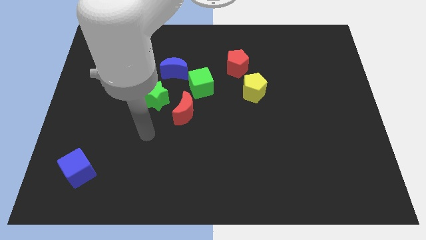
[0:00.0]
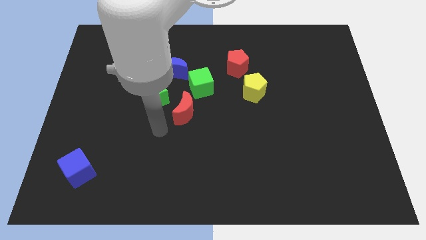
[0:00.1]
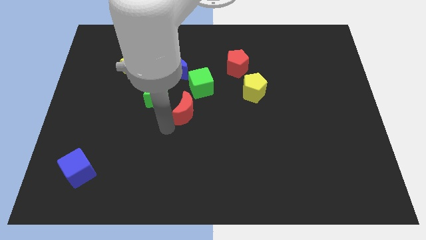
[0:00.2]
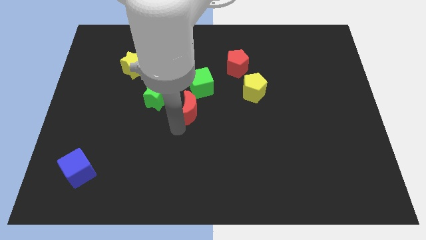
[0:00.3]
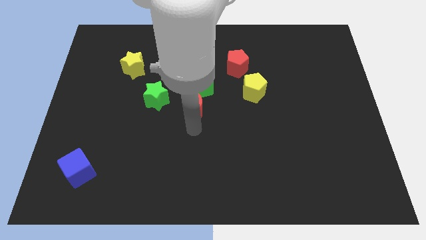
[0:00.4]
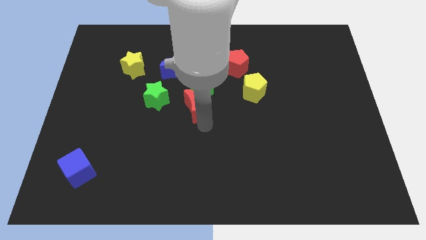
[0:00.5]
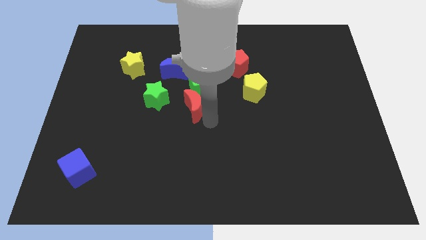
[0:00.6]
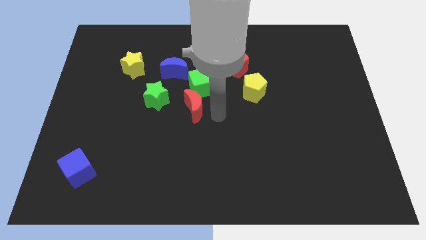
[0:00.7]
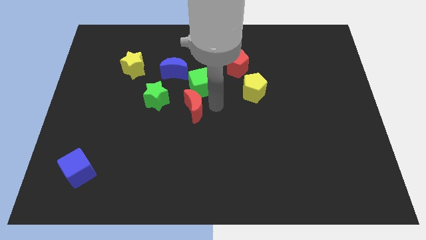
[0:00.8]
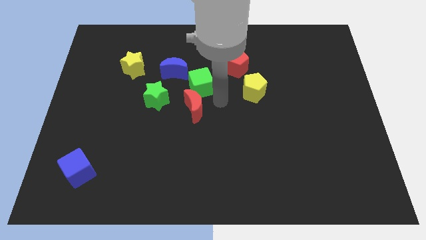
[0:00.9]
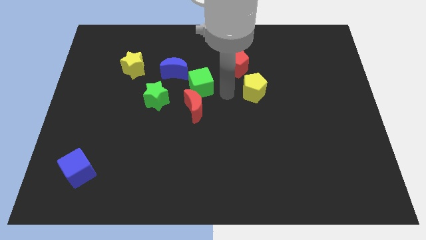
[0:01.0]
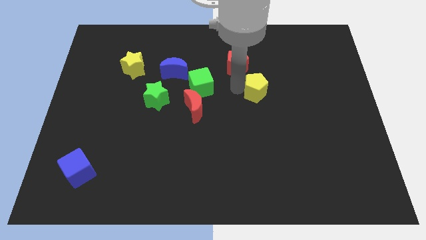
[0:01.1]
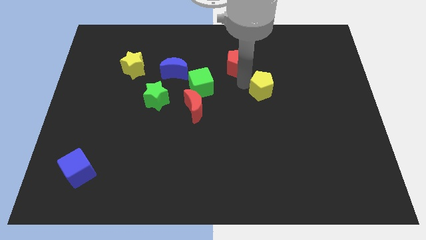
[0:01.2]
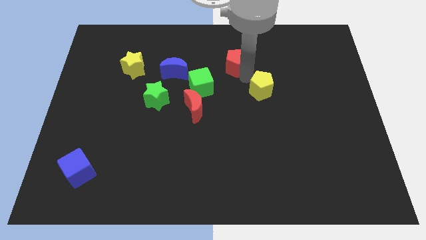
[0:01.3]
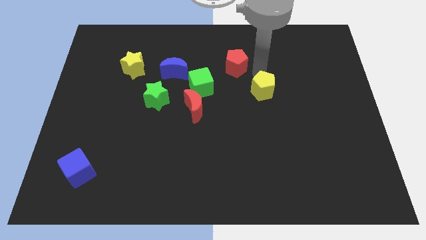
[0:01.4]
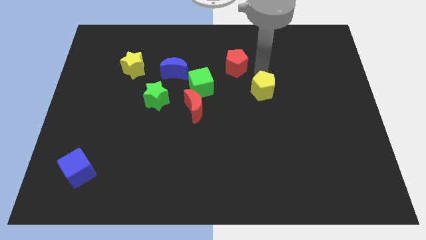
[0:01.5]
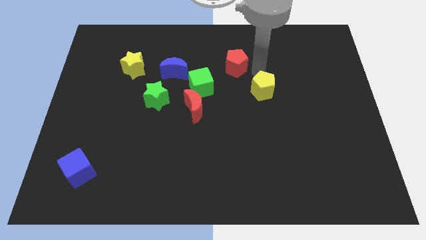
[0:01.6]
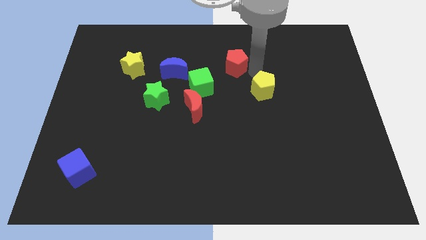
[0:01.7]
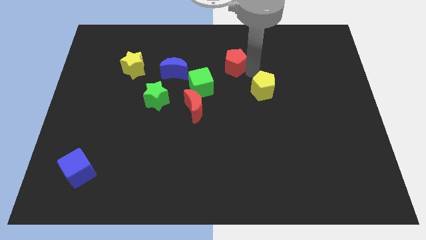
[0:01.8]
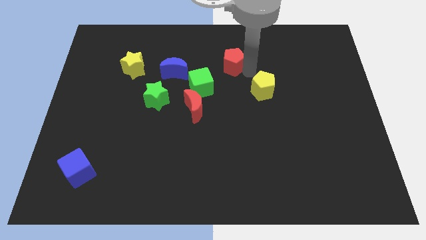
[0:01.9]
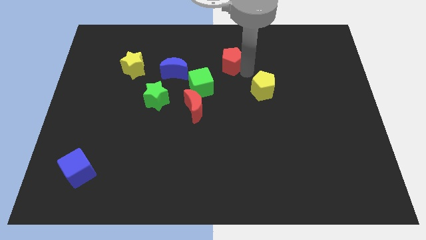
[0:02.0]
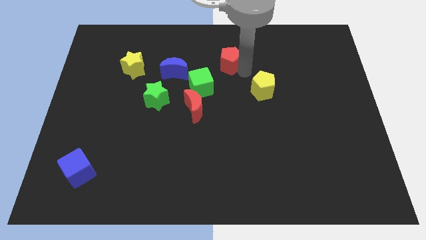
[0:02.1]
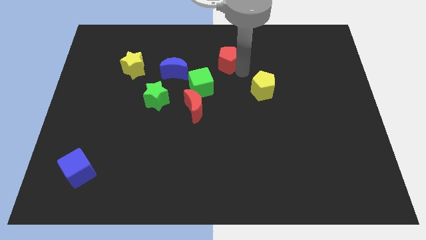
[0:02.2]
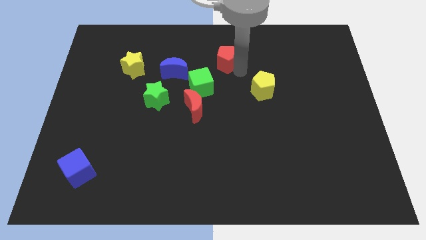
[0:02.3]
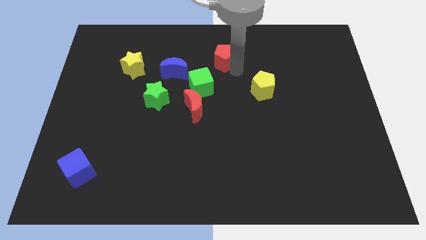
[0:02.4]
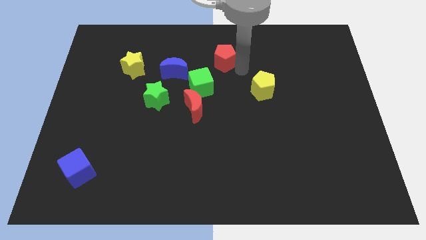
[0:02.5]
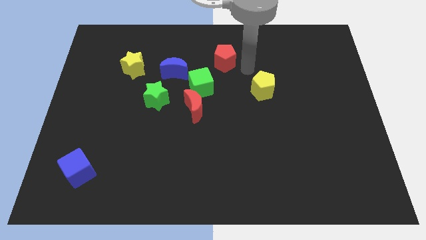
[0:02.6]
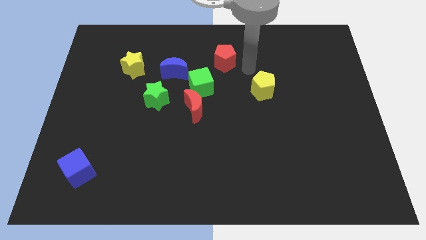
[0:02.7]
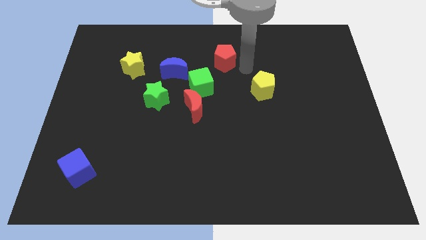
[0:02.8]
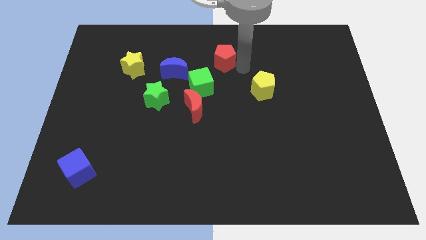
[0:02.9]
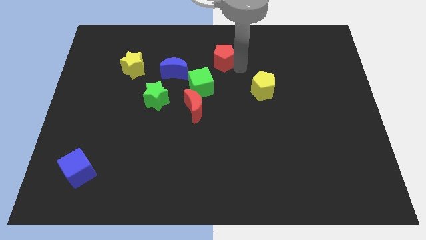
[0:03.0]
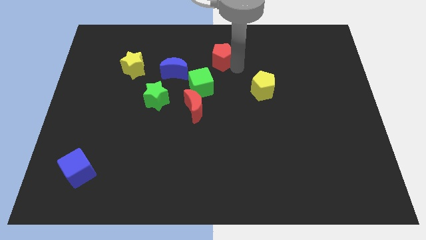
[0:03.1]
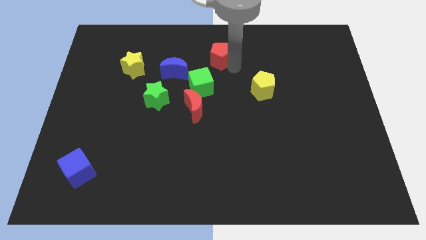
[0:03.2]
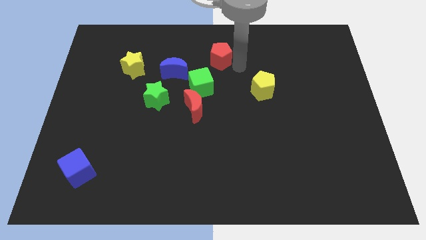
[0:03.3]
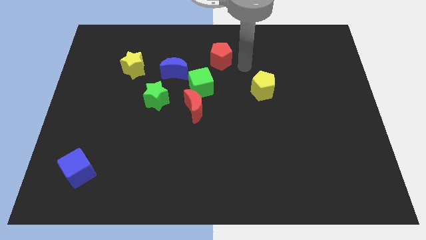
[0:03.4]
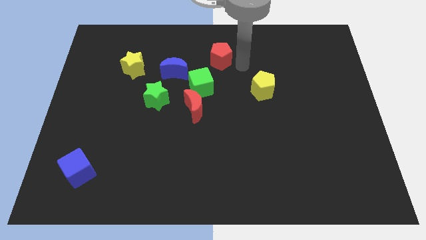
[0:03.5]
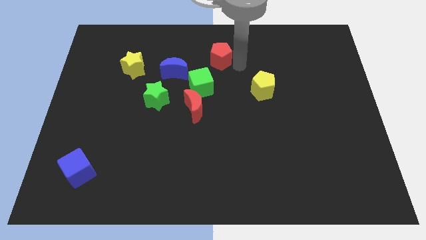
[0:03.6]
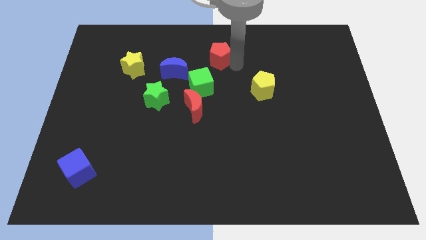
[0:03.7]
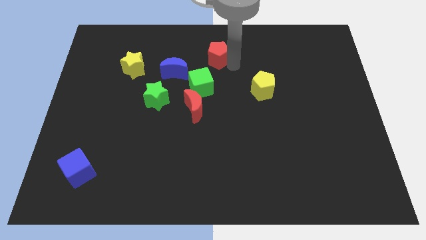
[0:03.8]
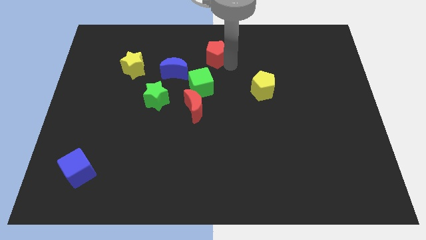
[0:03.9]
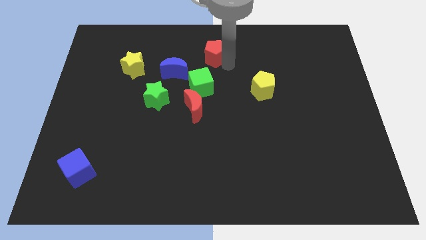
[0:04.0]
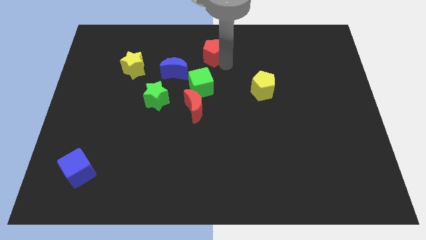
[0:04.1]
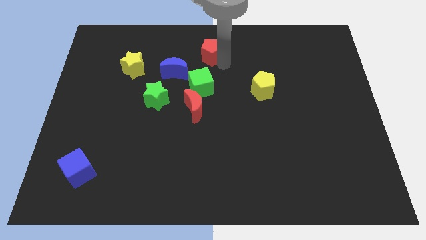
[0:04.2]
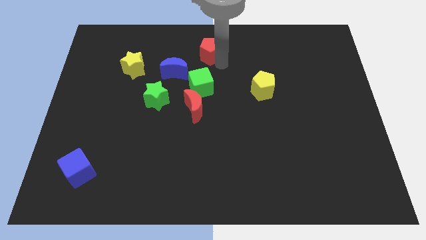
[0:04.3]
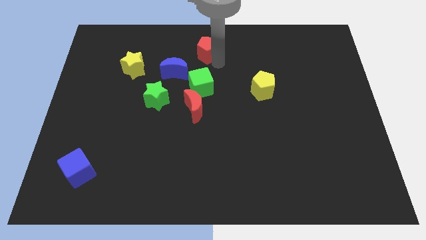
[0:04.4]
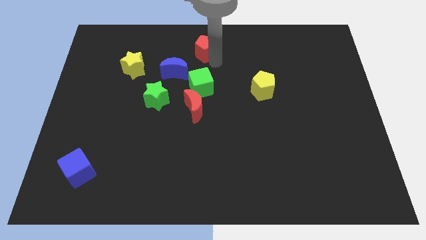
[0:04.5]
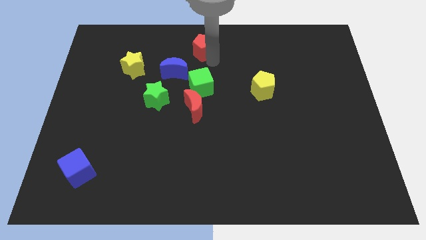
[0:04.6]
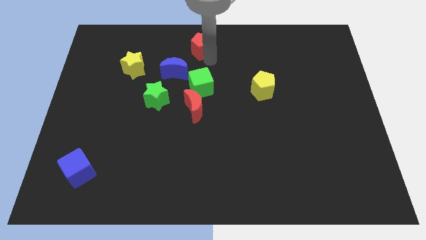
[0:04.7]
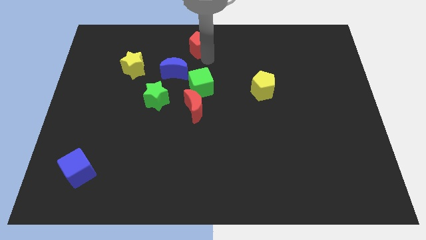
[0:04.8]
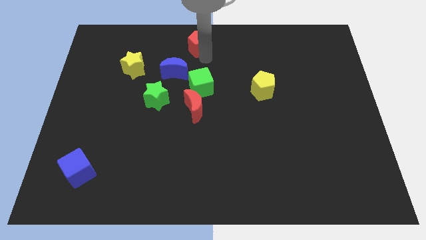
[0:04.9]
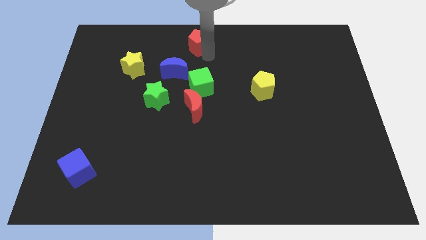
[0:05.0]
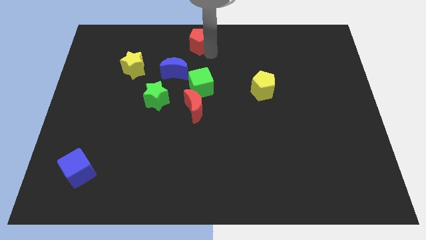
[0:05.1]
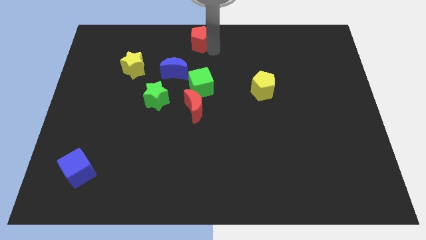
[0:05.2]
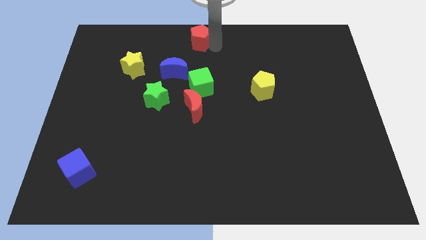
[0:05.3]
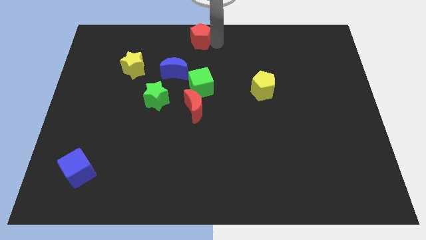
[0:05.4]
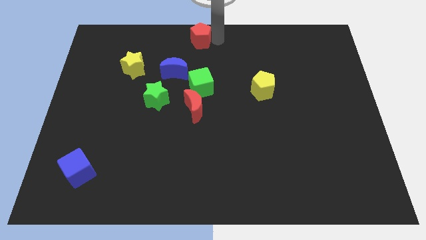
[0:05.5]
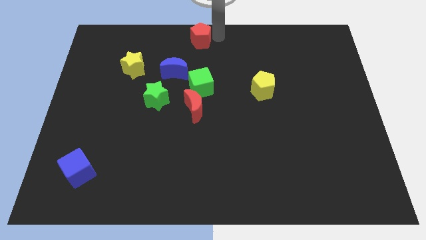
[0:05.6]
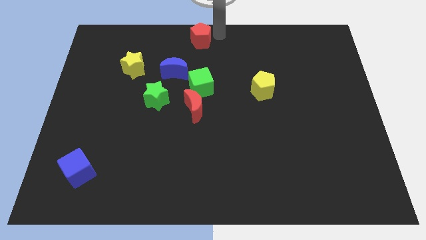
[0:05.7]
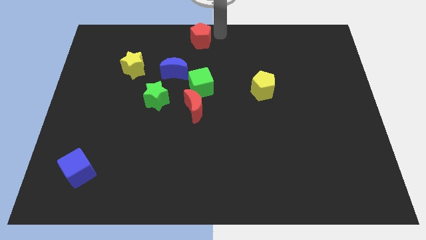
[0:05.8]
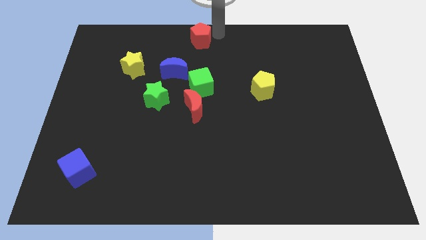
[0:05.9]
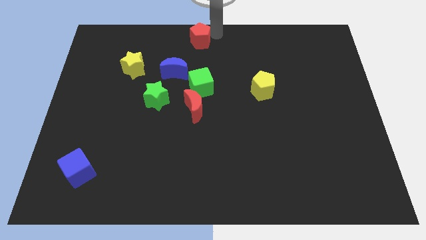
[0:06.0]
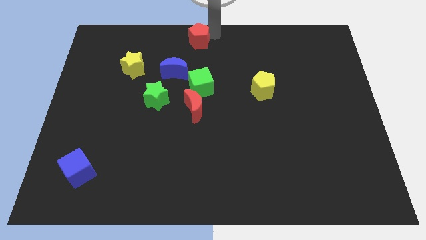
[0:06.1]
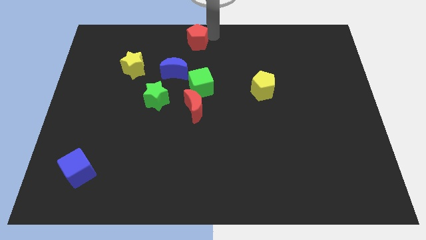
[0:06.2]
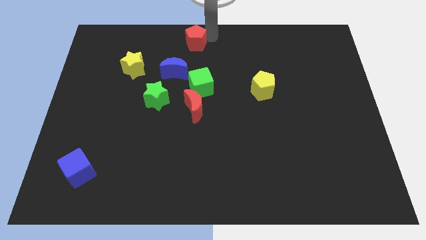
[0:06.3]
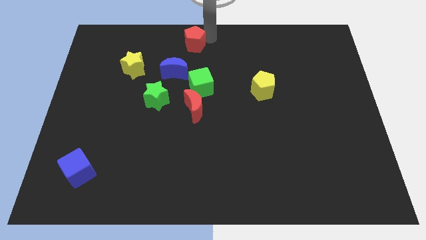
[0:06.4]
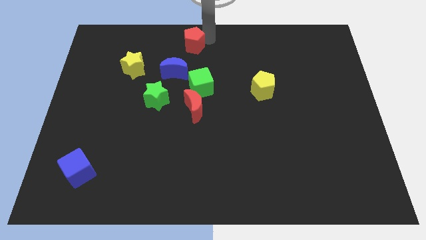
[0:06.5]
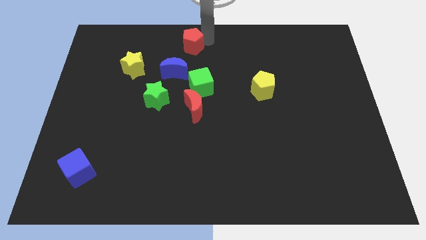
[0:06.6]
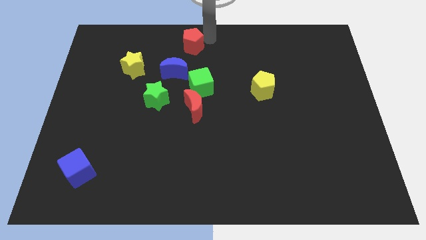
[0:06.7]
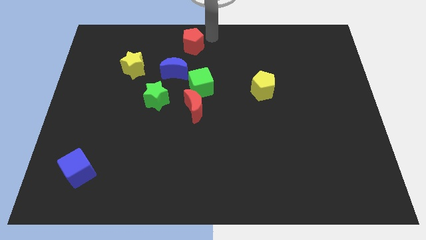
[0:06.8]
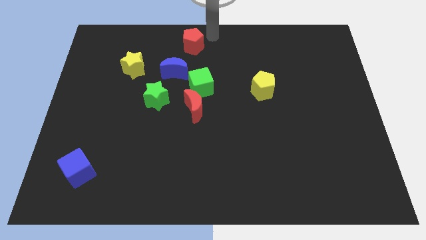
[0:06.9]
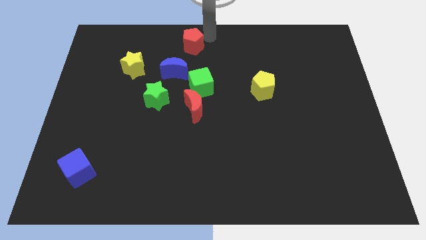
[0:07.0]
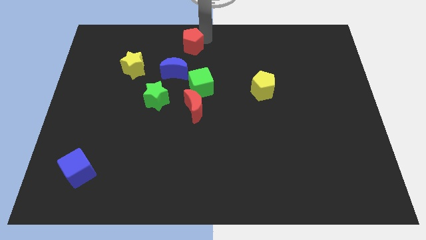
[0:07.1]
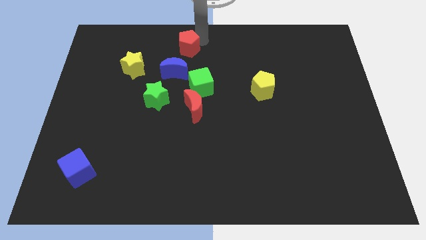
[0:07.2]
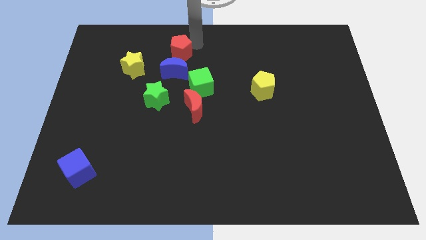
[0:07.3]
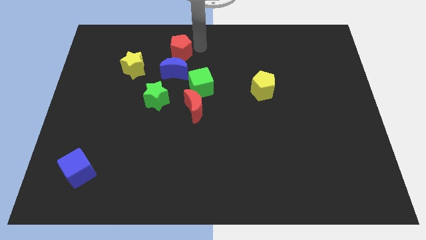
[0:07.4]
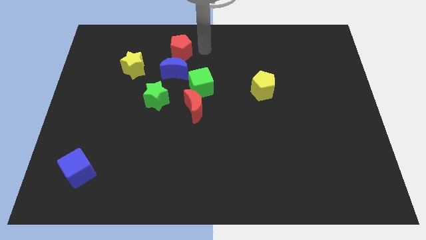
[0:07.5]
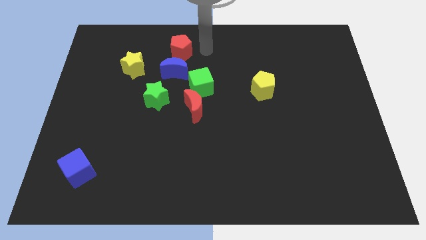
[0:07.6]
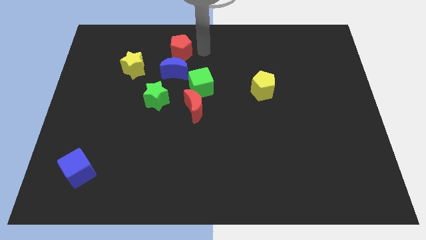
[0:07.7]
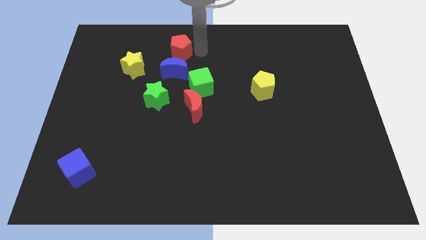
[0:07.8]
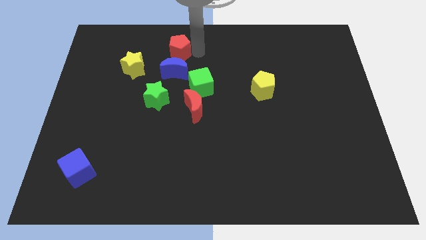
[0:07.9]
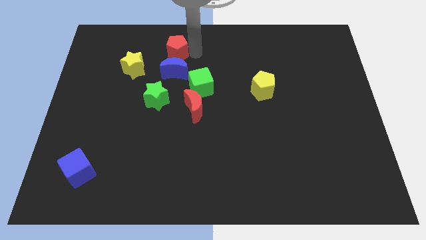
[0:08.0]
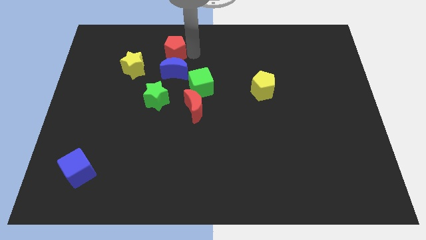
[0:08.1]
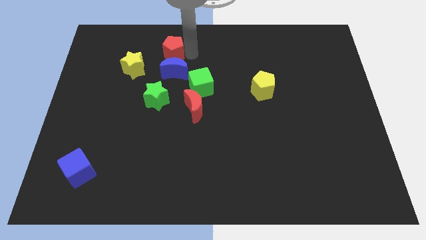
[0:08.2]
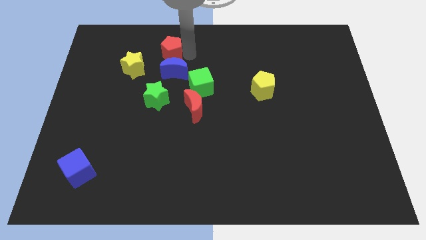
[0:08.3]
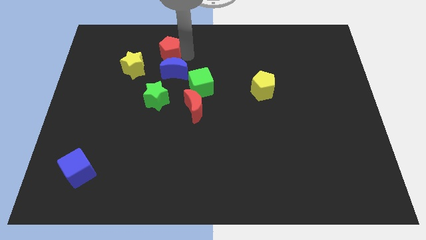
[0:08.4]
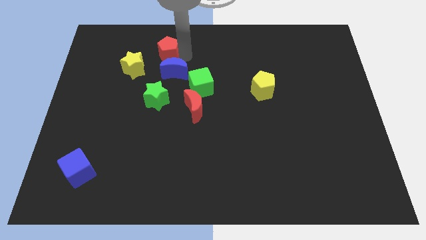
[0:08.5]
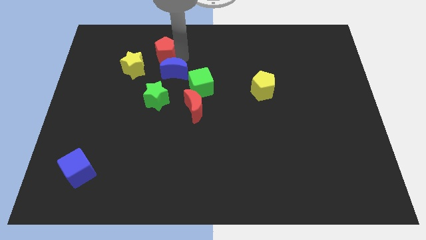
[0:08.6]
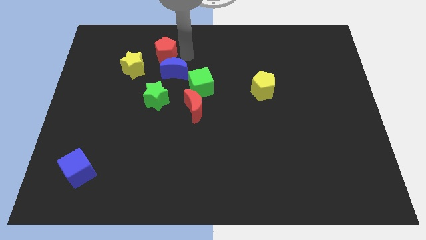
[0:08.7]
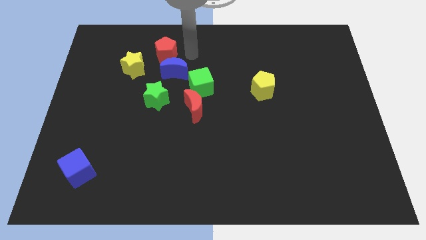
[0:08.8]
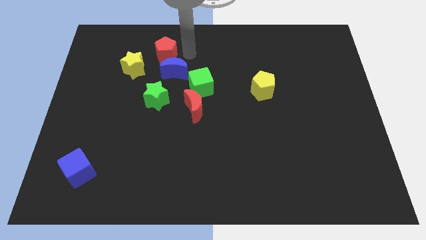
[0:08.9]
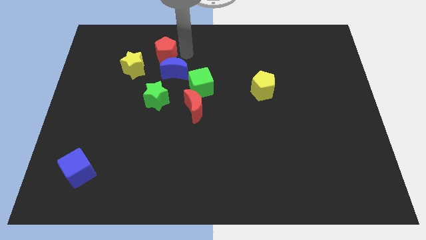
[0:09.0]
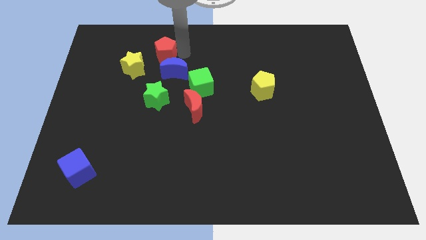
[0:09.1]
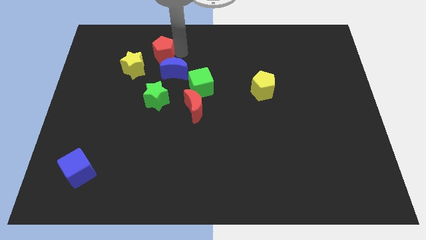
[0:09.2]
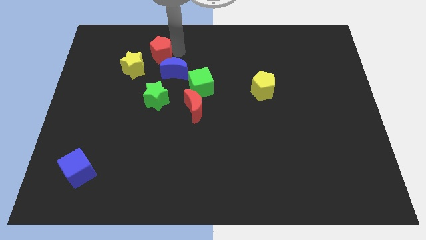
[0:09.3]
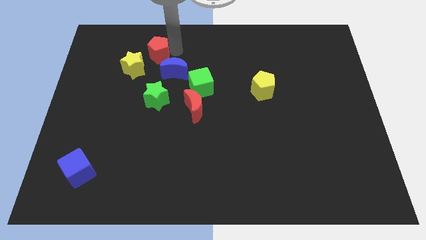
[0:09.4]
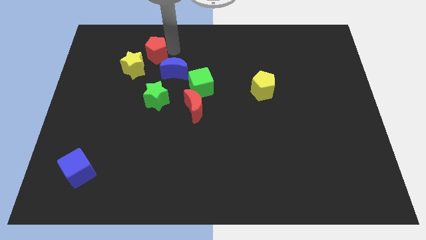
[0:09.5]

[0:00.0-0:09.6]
move the red pentagon left
